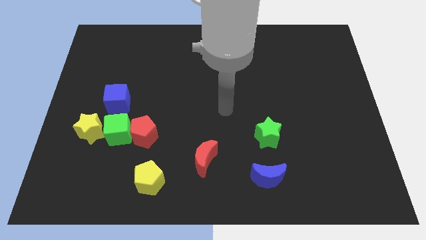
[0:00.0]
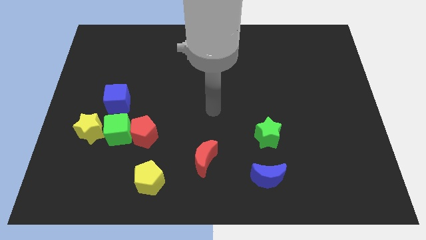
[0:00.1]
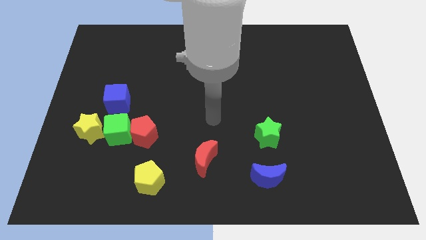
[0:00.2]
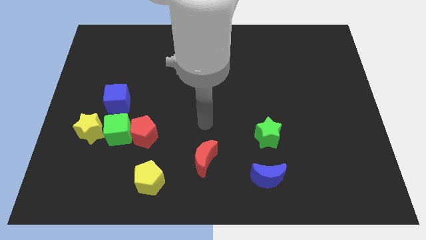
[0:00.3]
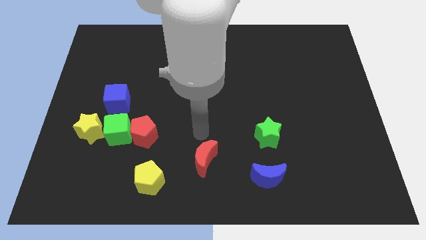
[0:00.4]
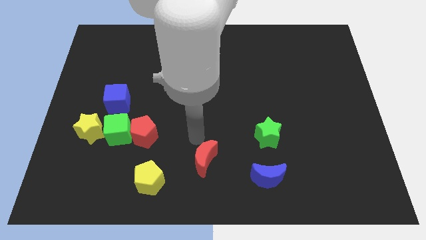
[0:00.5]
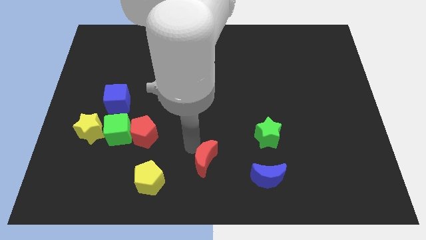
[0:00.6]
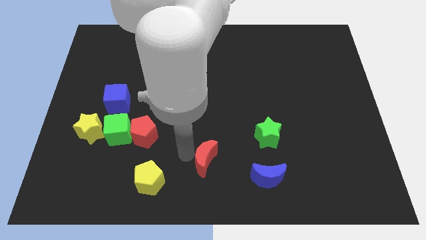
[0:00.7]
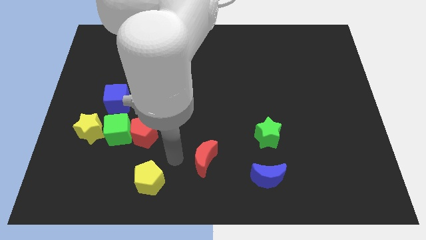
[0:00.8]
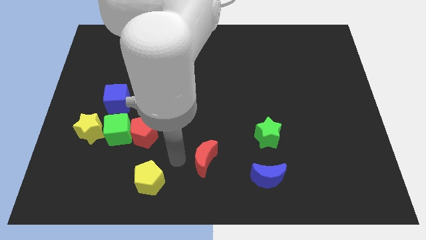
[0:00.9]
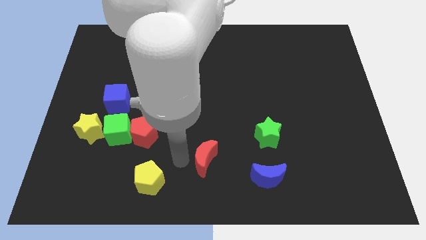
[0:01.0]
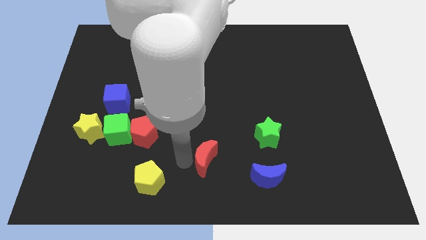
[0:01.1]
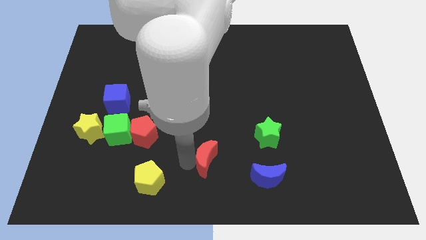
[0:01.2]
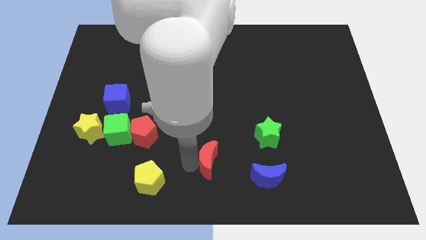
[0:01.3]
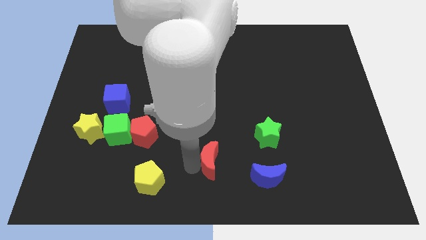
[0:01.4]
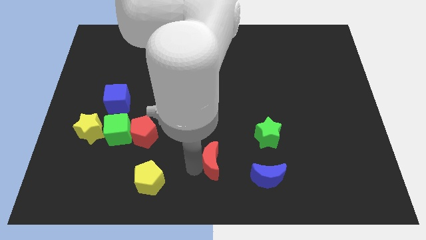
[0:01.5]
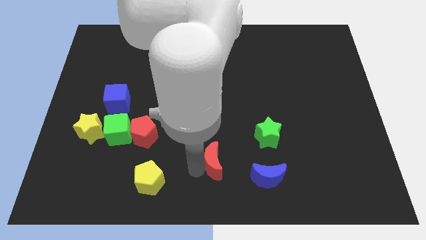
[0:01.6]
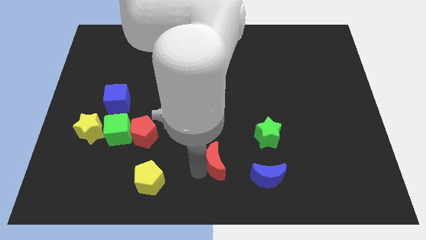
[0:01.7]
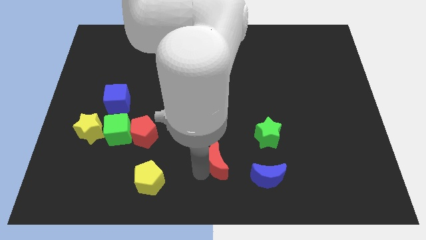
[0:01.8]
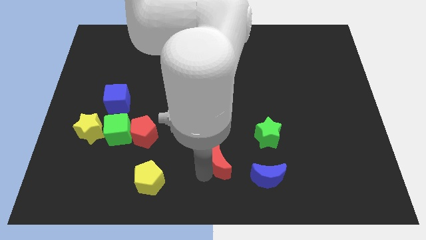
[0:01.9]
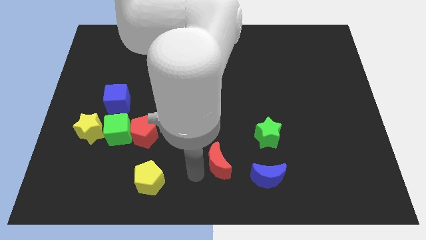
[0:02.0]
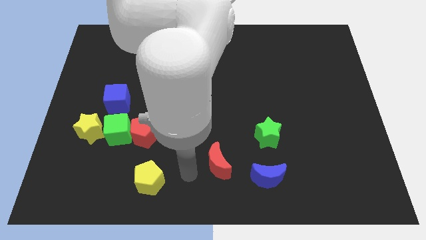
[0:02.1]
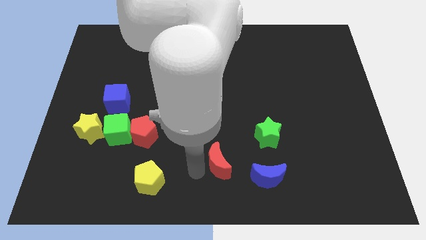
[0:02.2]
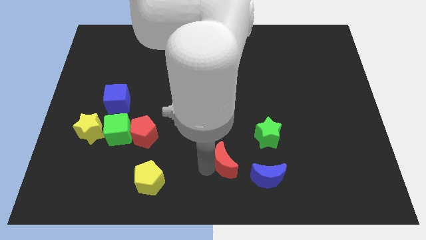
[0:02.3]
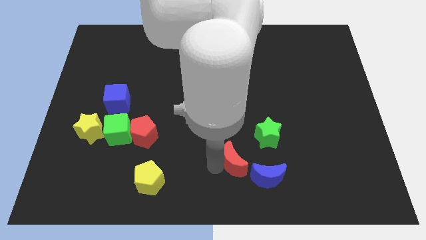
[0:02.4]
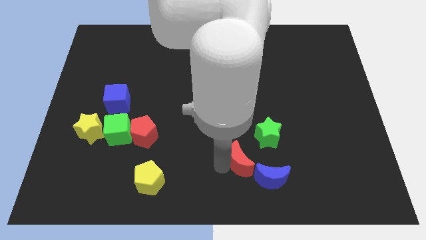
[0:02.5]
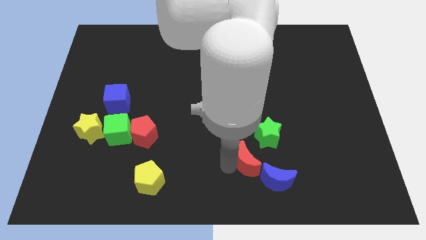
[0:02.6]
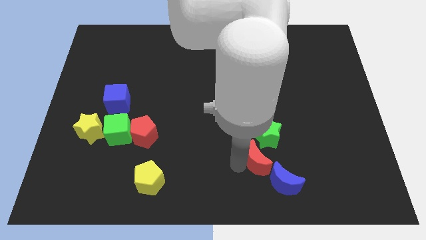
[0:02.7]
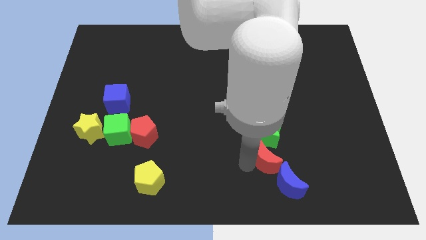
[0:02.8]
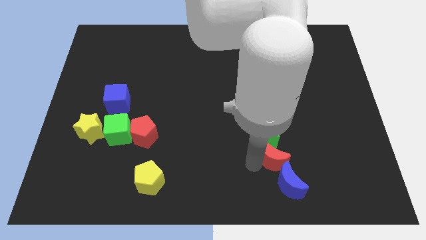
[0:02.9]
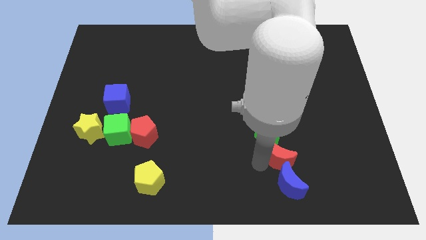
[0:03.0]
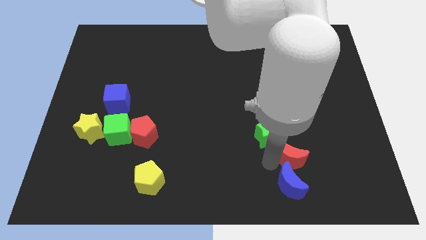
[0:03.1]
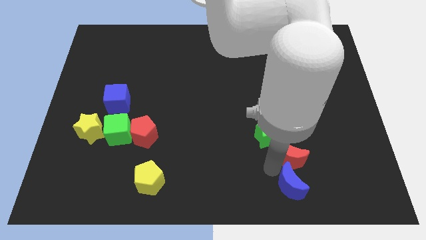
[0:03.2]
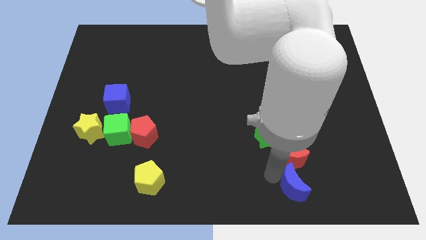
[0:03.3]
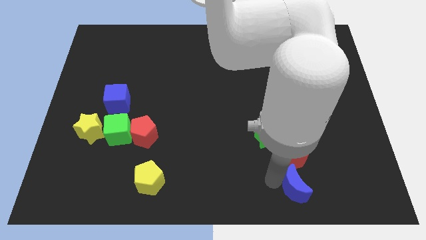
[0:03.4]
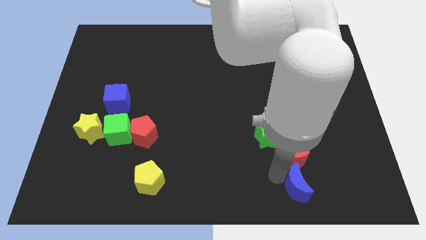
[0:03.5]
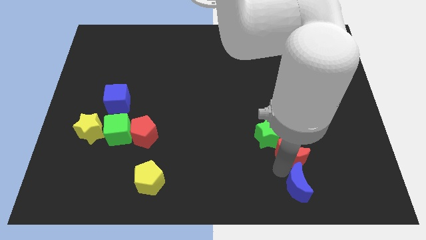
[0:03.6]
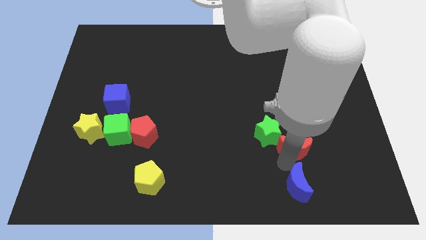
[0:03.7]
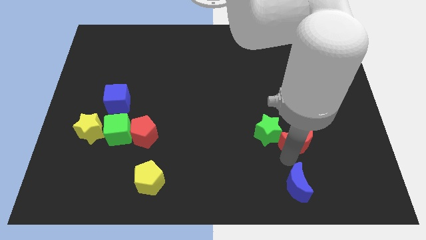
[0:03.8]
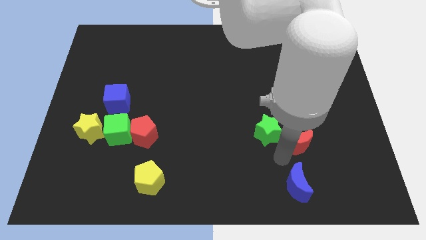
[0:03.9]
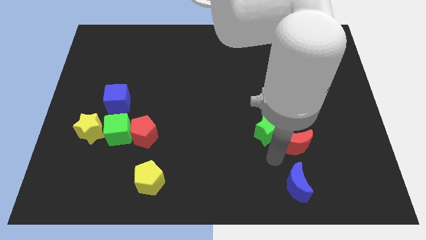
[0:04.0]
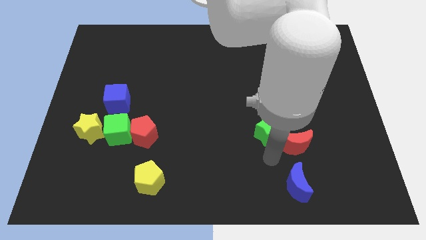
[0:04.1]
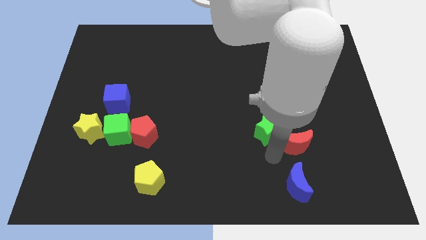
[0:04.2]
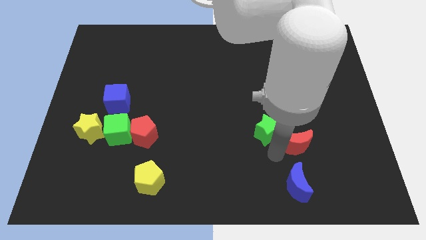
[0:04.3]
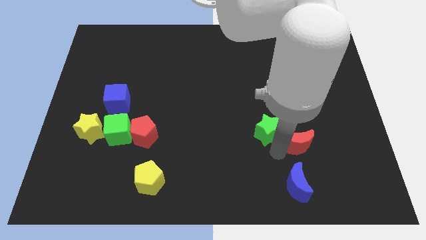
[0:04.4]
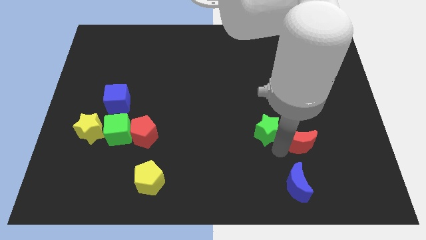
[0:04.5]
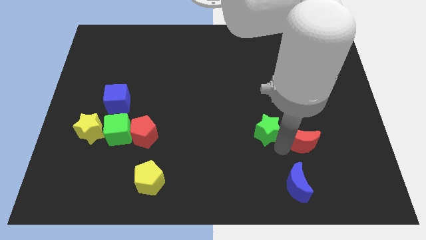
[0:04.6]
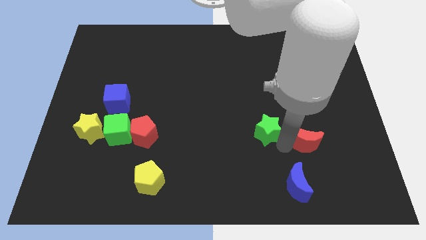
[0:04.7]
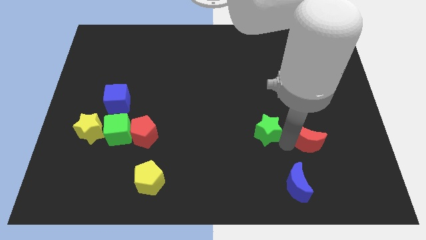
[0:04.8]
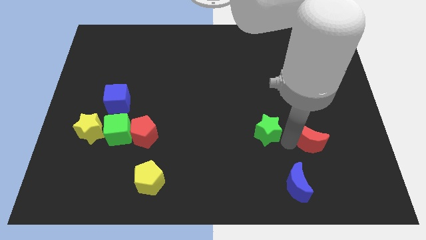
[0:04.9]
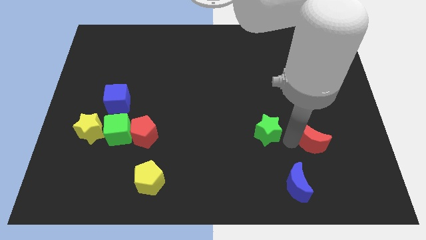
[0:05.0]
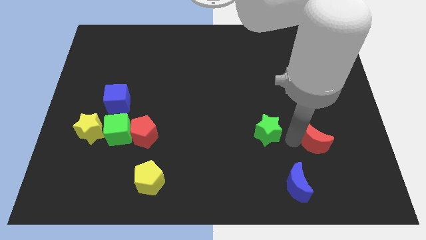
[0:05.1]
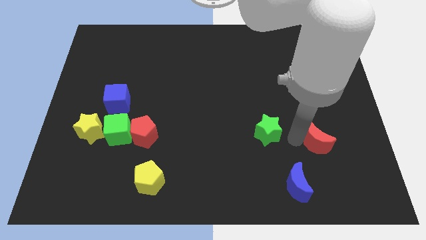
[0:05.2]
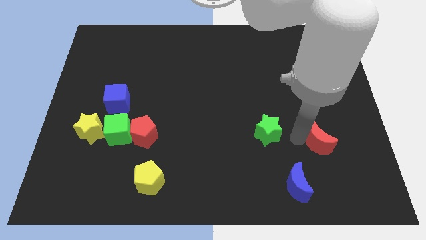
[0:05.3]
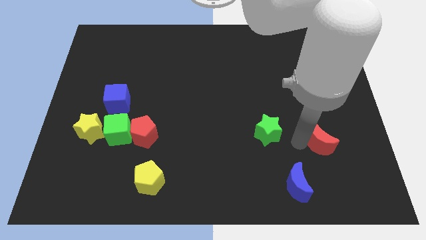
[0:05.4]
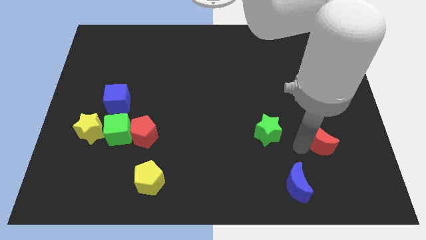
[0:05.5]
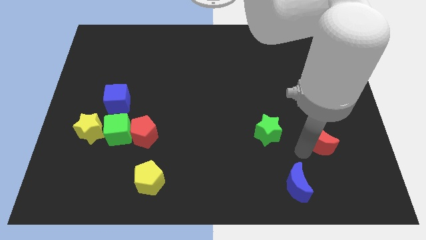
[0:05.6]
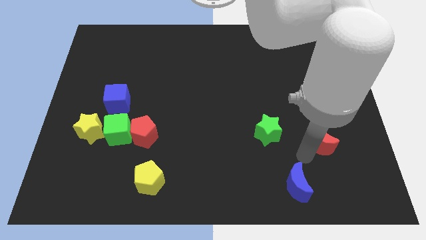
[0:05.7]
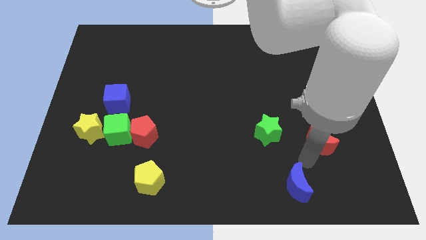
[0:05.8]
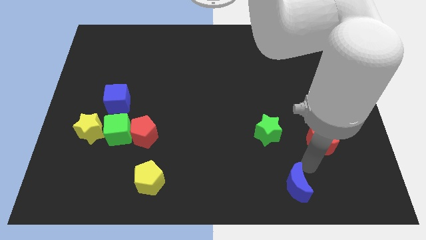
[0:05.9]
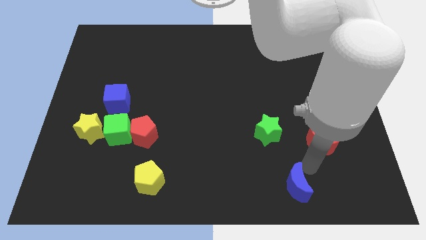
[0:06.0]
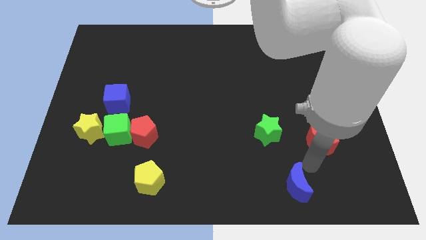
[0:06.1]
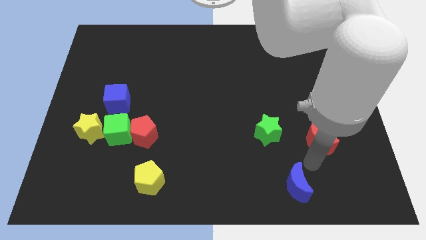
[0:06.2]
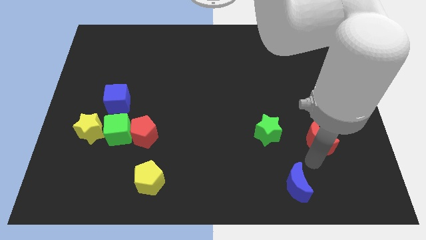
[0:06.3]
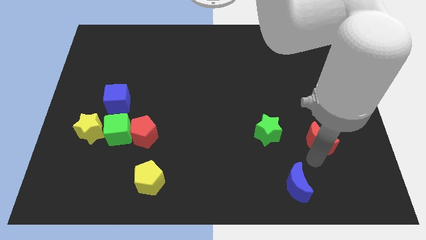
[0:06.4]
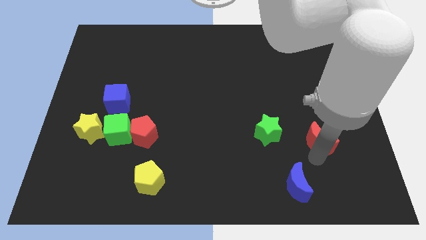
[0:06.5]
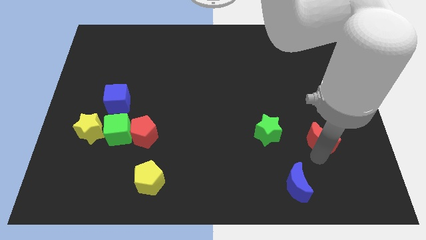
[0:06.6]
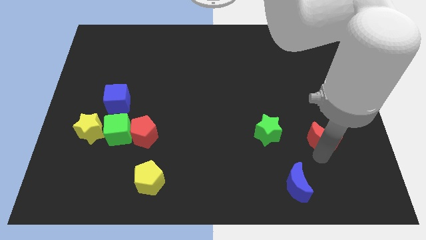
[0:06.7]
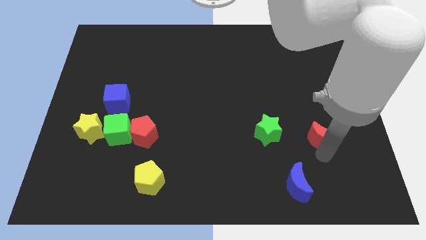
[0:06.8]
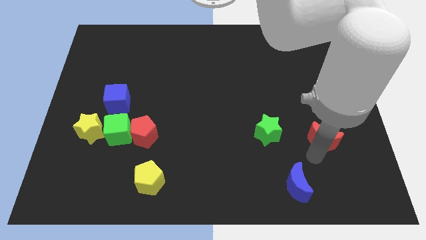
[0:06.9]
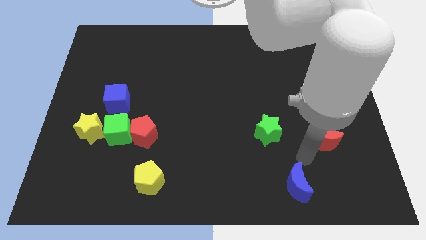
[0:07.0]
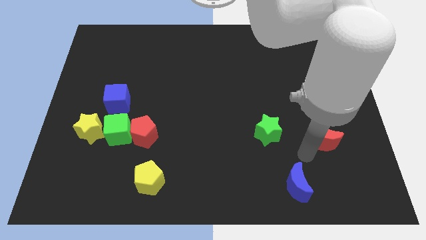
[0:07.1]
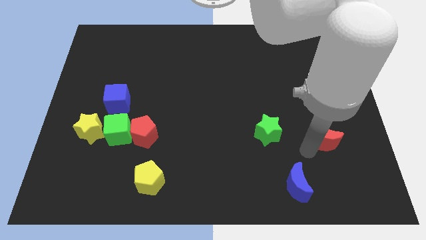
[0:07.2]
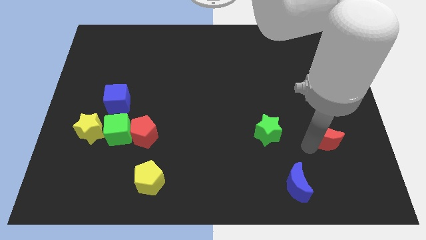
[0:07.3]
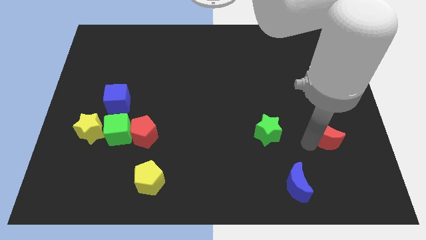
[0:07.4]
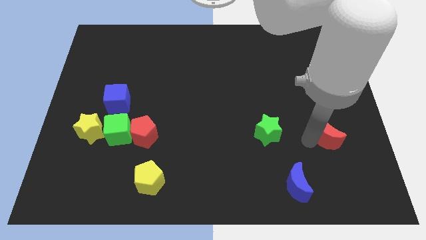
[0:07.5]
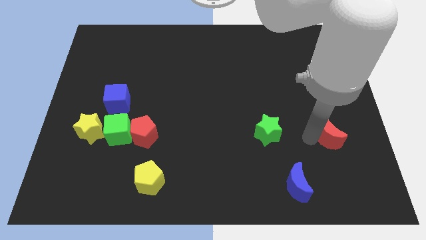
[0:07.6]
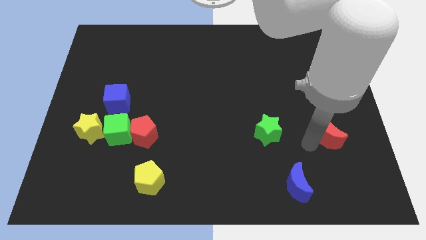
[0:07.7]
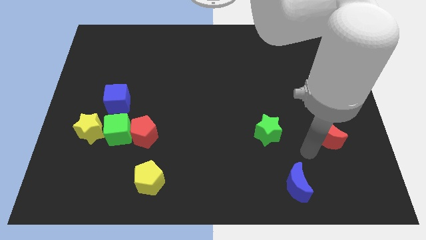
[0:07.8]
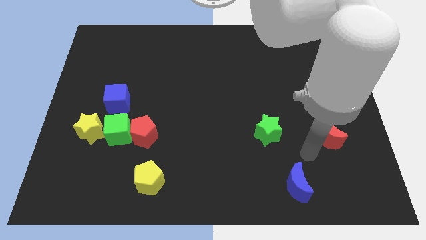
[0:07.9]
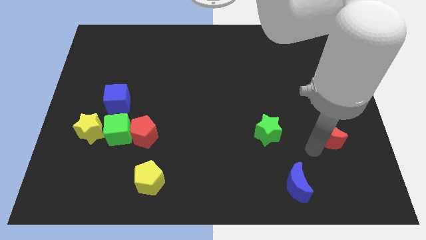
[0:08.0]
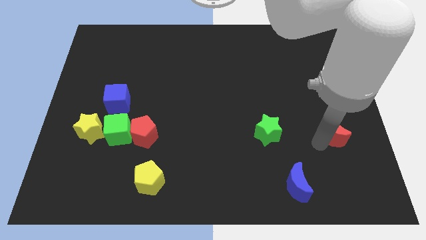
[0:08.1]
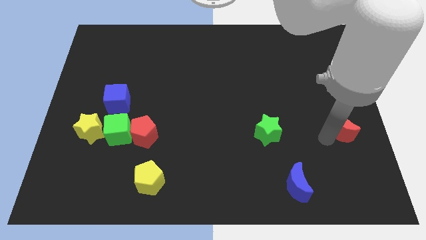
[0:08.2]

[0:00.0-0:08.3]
move the red moon to the right side of the board
